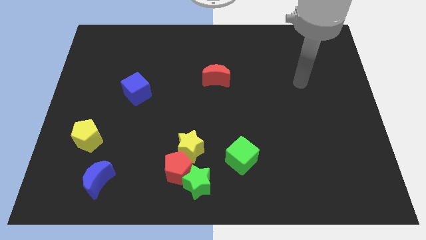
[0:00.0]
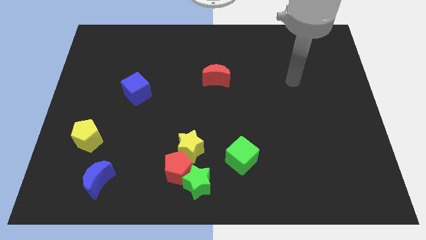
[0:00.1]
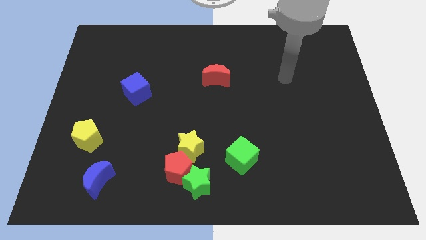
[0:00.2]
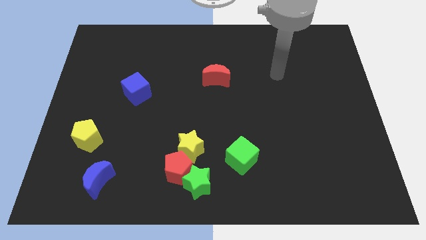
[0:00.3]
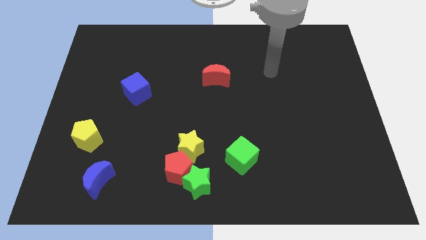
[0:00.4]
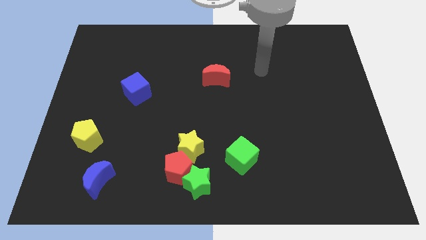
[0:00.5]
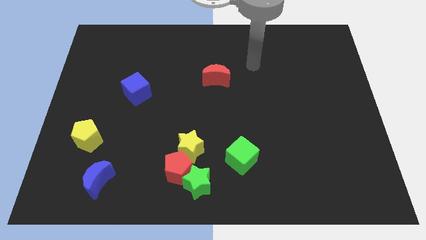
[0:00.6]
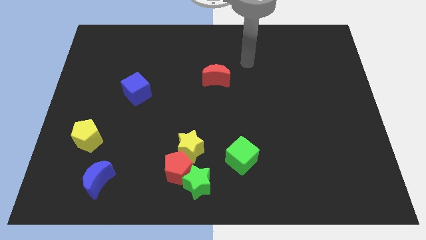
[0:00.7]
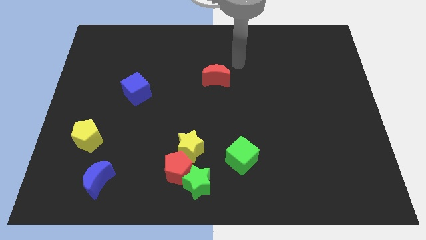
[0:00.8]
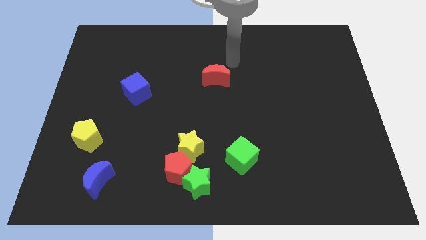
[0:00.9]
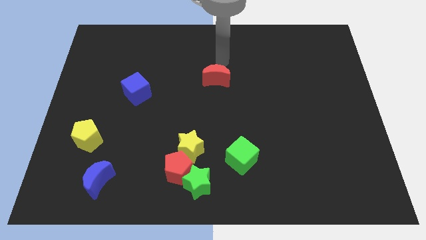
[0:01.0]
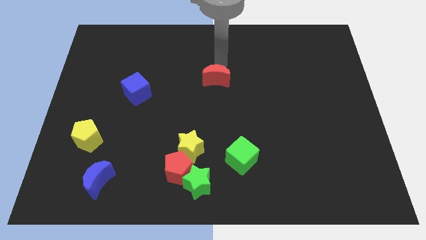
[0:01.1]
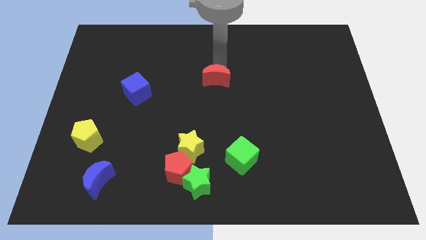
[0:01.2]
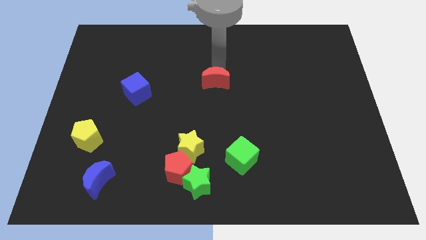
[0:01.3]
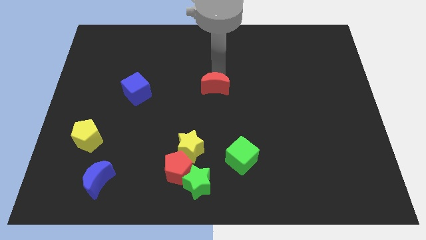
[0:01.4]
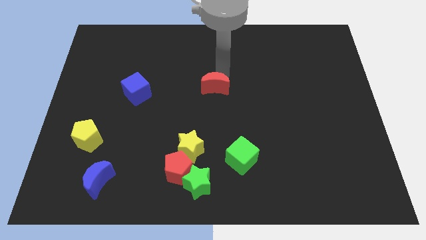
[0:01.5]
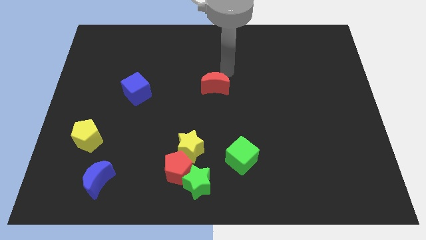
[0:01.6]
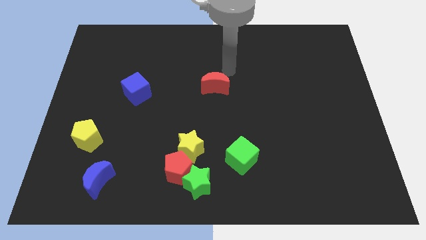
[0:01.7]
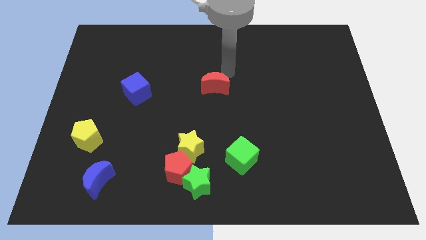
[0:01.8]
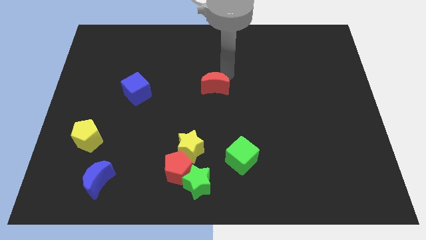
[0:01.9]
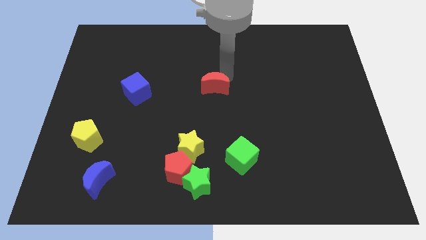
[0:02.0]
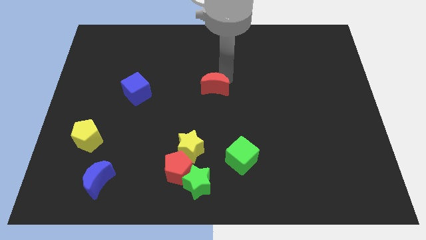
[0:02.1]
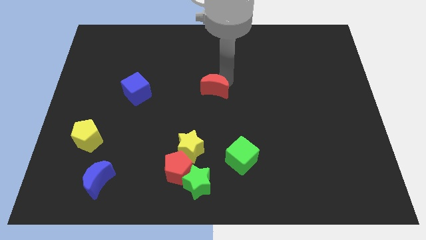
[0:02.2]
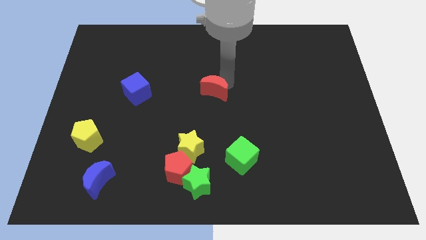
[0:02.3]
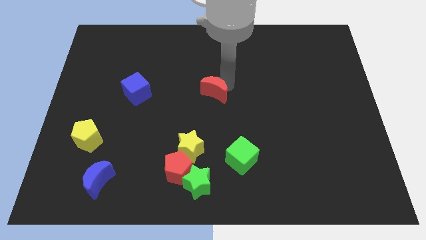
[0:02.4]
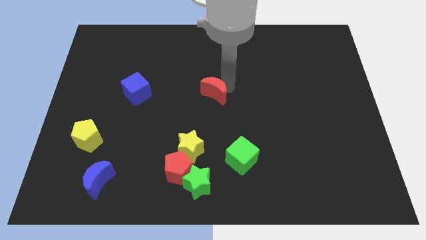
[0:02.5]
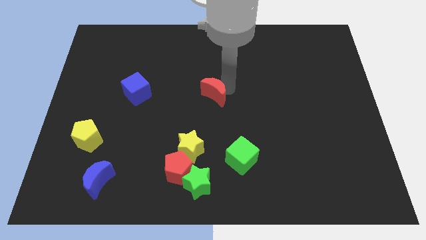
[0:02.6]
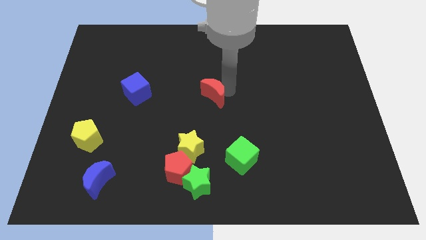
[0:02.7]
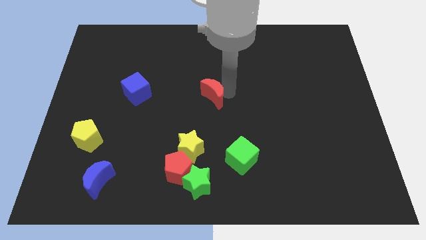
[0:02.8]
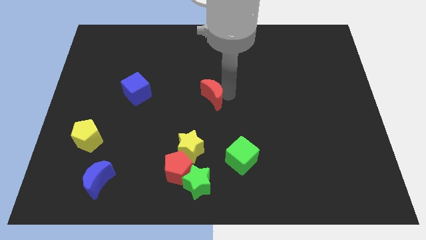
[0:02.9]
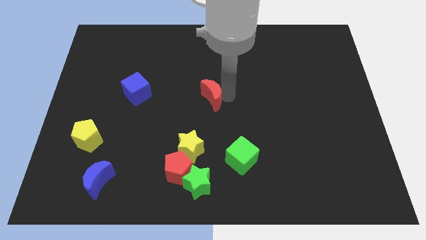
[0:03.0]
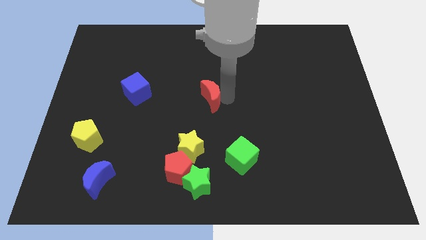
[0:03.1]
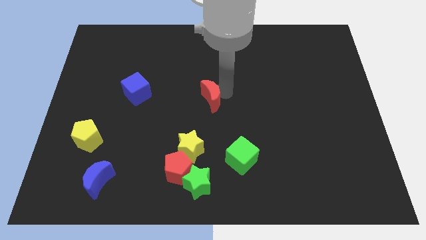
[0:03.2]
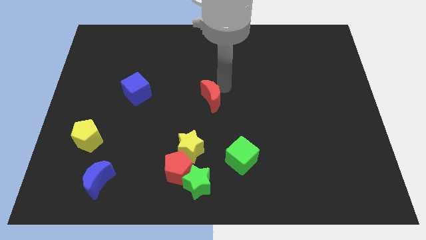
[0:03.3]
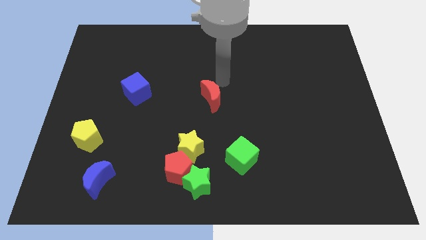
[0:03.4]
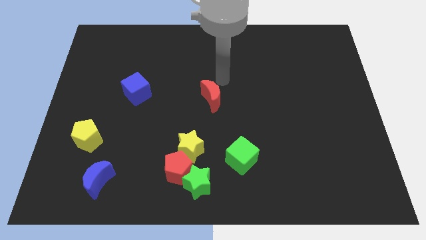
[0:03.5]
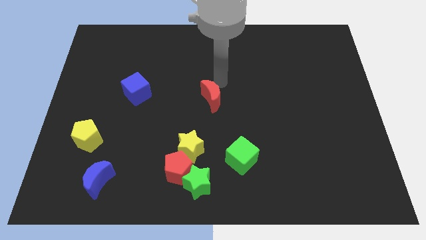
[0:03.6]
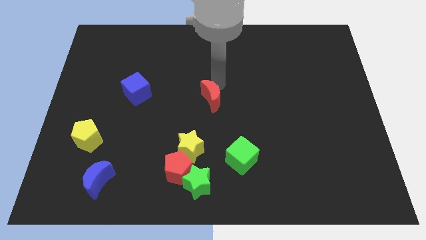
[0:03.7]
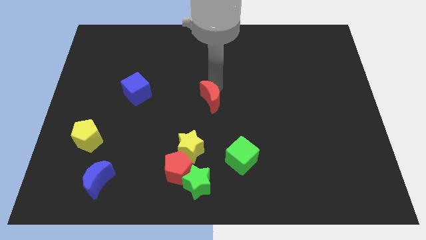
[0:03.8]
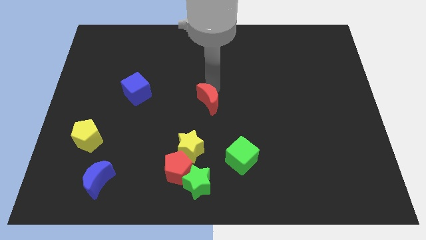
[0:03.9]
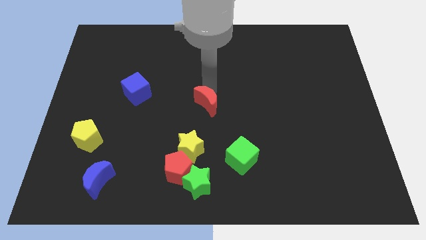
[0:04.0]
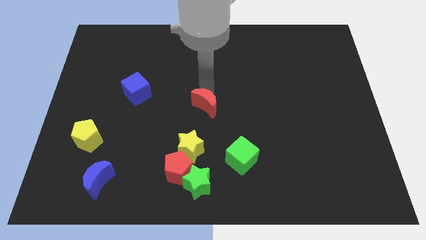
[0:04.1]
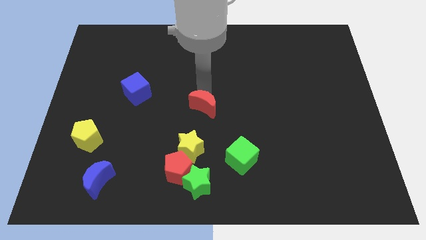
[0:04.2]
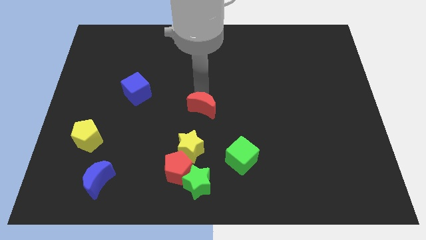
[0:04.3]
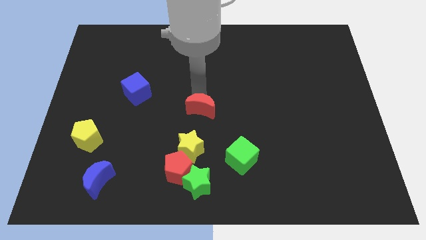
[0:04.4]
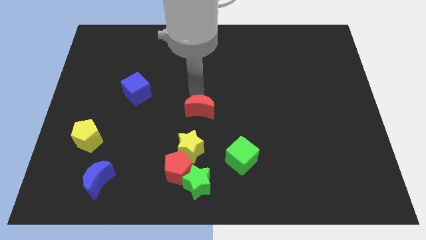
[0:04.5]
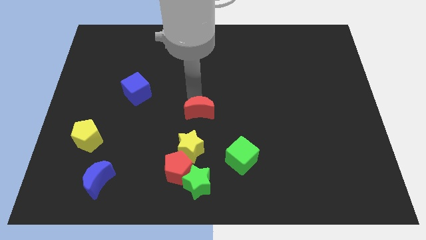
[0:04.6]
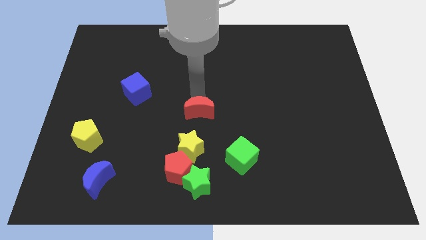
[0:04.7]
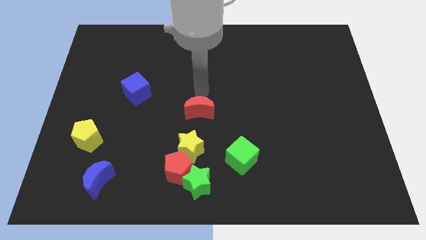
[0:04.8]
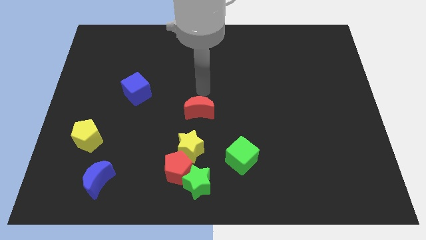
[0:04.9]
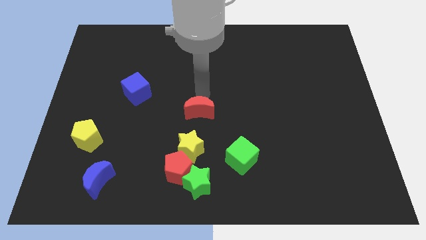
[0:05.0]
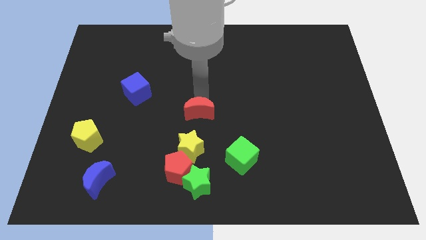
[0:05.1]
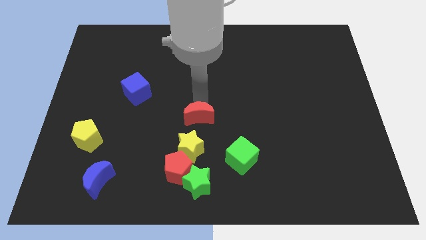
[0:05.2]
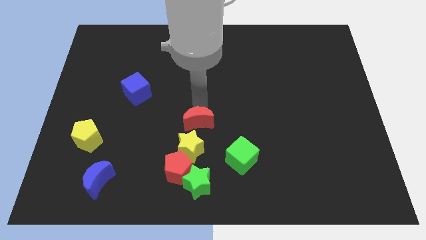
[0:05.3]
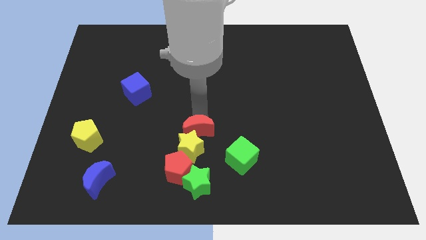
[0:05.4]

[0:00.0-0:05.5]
push the red moon to the yellow star

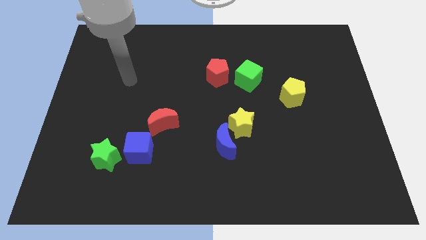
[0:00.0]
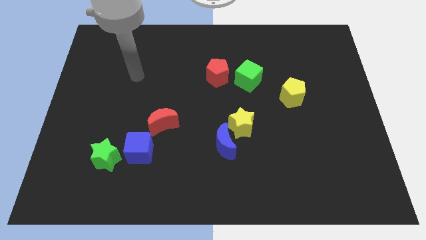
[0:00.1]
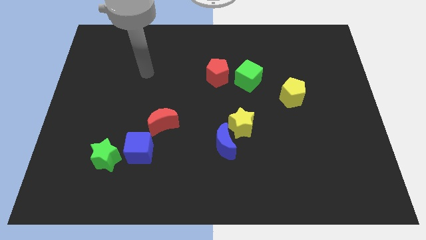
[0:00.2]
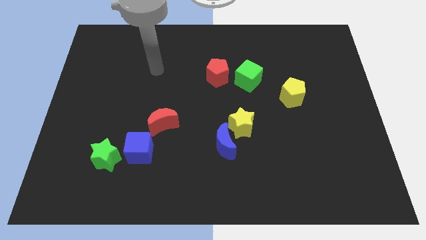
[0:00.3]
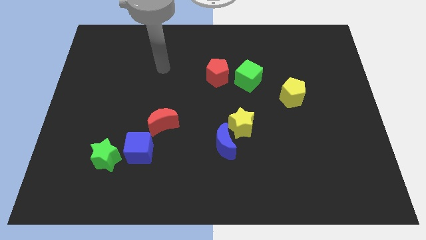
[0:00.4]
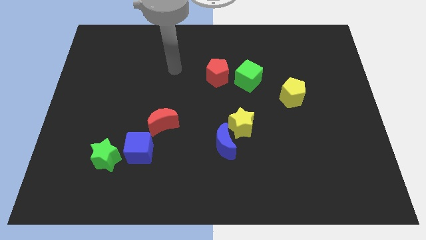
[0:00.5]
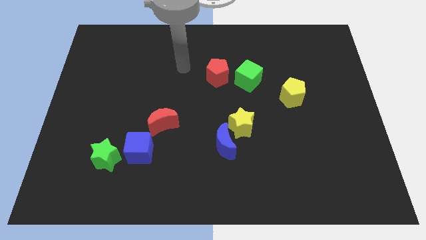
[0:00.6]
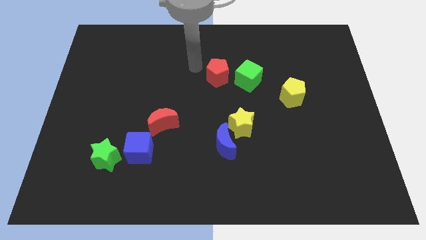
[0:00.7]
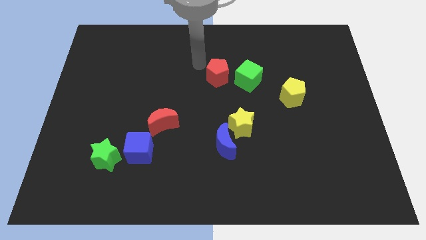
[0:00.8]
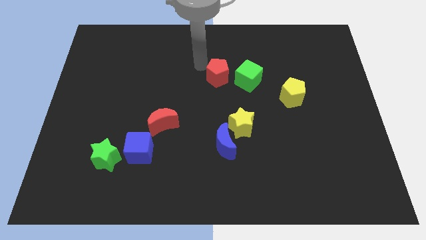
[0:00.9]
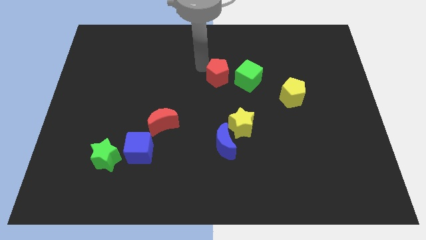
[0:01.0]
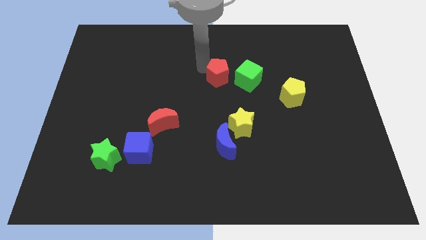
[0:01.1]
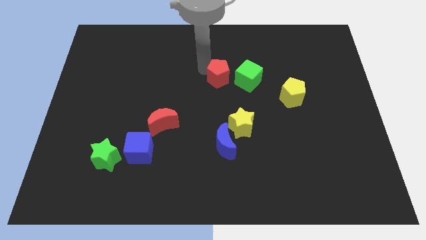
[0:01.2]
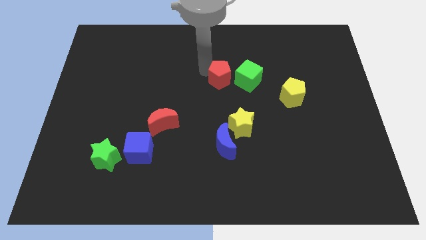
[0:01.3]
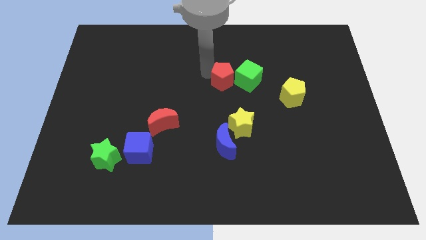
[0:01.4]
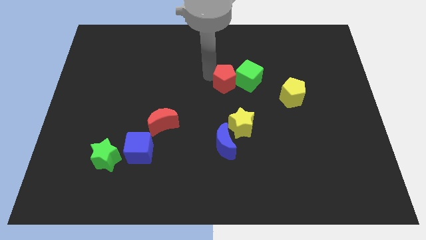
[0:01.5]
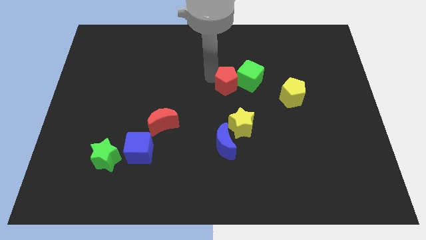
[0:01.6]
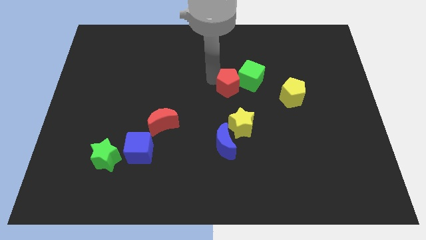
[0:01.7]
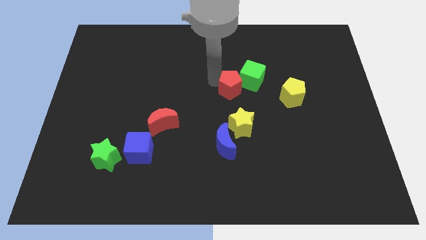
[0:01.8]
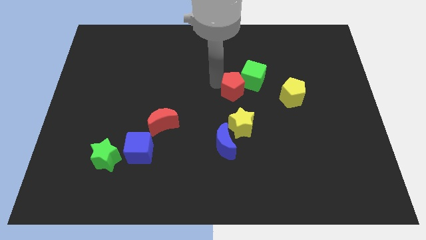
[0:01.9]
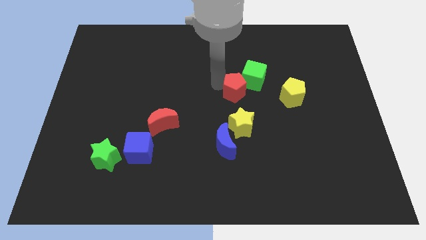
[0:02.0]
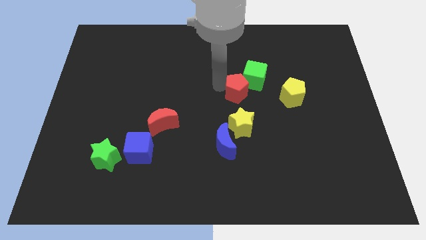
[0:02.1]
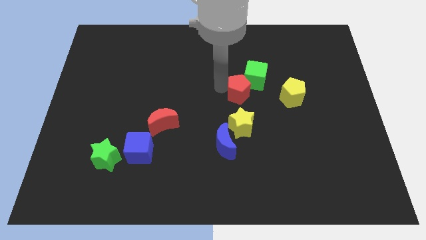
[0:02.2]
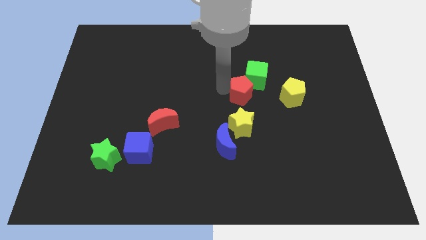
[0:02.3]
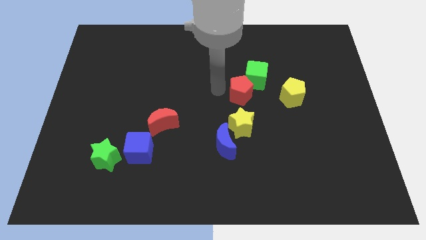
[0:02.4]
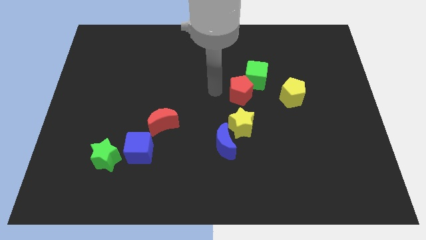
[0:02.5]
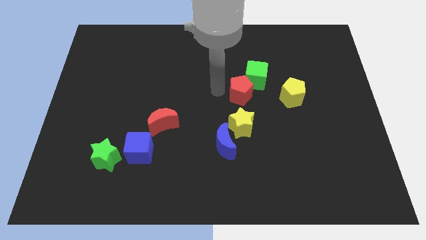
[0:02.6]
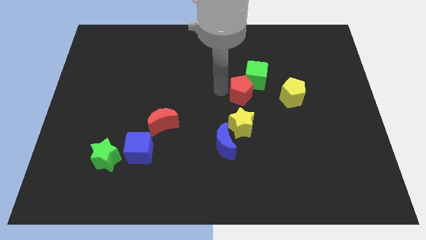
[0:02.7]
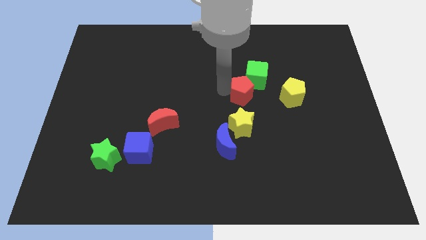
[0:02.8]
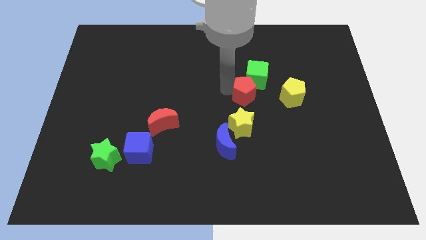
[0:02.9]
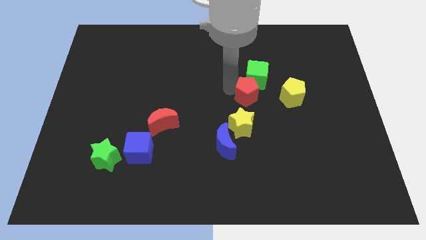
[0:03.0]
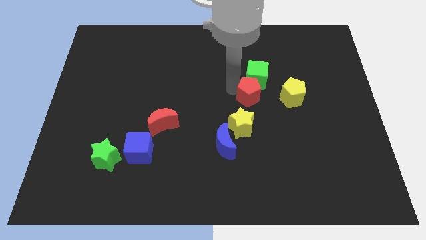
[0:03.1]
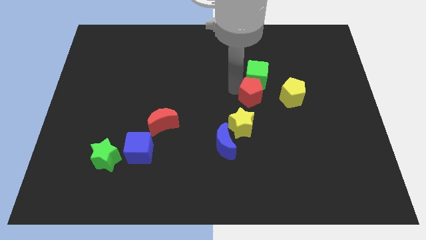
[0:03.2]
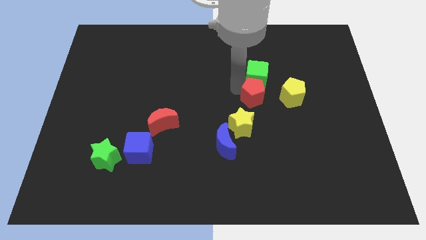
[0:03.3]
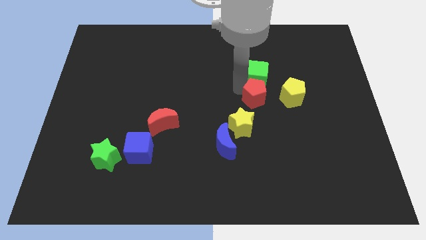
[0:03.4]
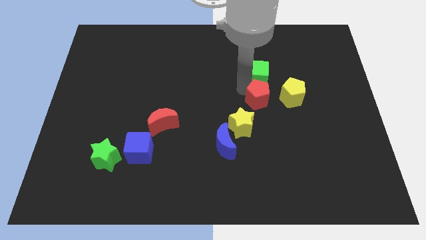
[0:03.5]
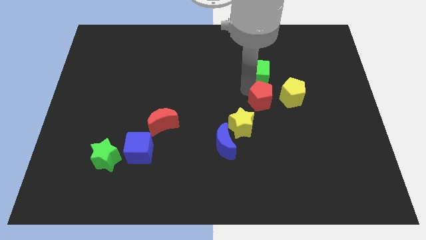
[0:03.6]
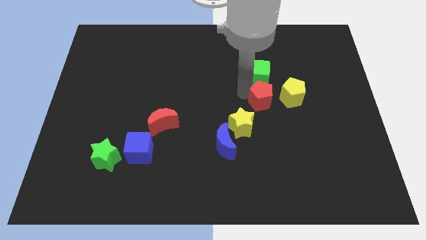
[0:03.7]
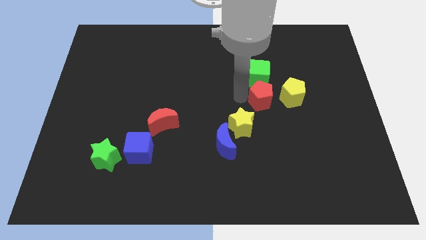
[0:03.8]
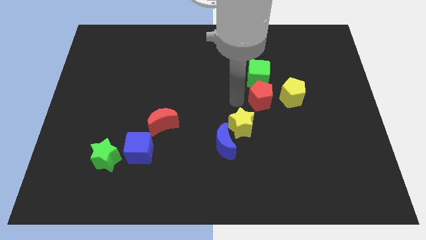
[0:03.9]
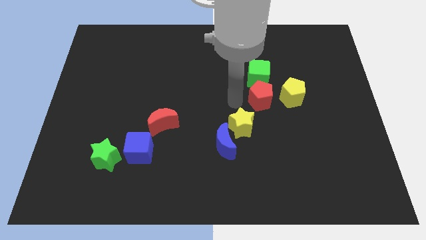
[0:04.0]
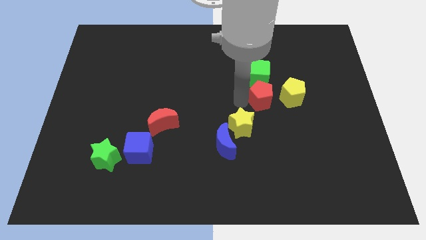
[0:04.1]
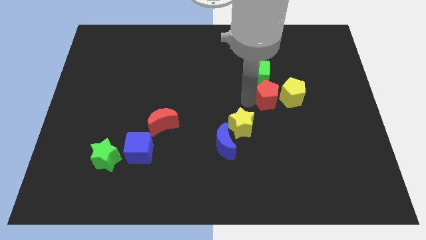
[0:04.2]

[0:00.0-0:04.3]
move the red pentagon to the yellow pentagon
